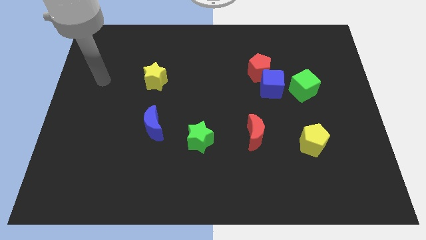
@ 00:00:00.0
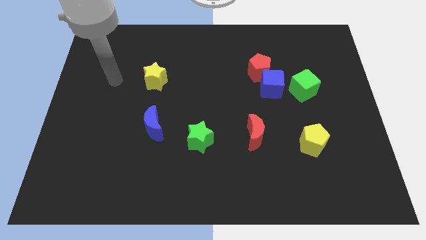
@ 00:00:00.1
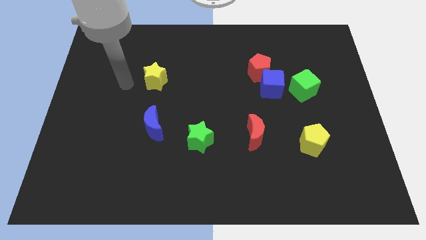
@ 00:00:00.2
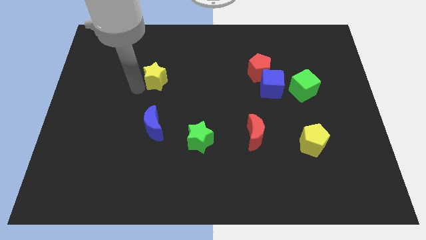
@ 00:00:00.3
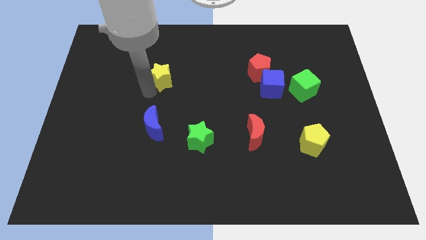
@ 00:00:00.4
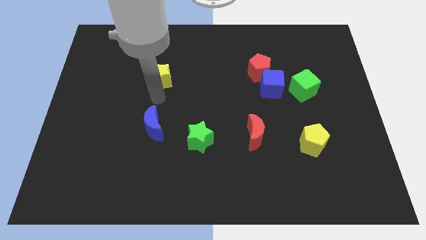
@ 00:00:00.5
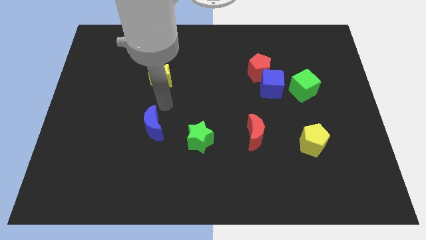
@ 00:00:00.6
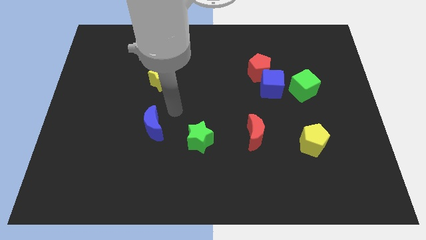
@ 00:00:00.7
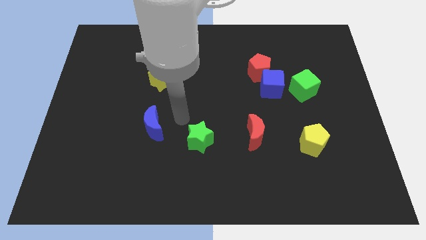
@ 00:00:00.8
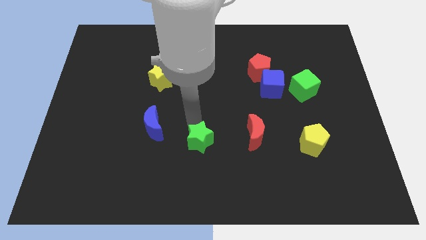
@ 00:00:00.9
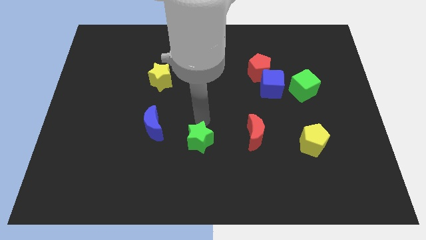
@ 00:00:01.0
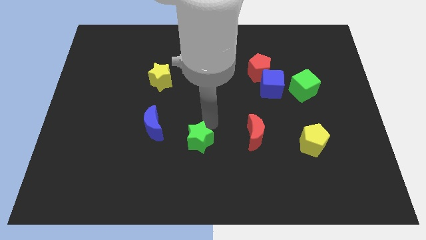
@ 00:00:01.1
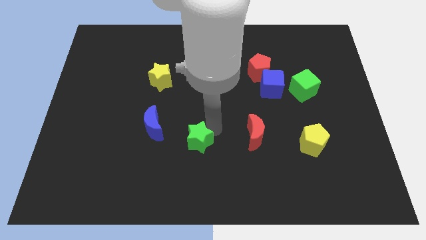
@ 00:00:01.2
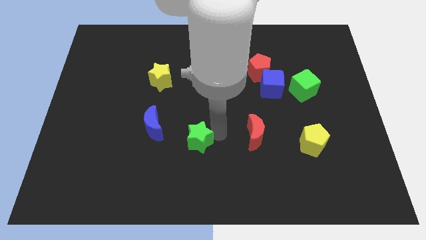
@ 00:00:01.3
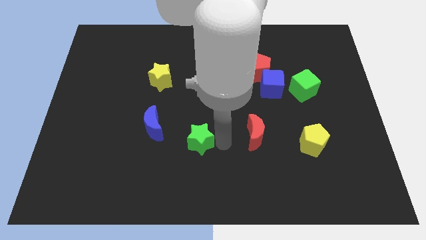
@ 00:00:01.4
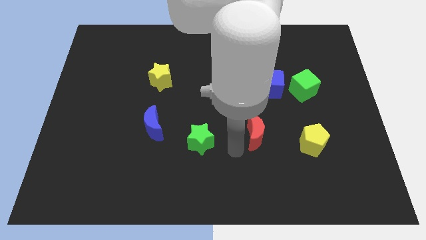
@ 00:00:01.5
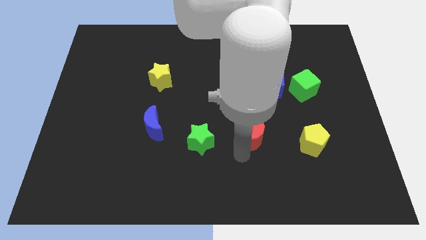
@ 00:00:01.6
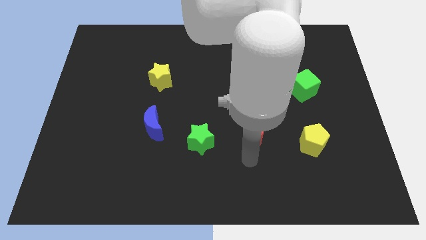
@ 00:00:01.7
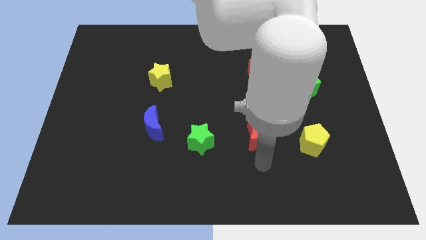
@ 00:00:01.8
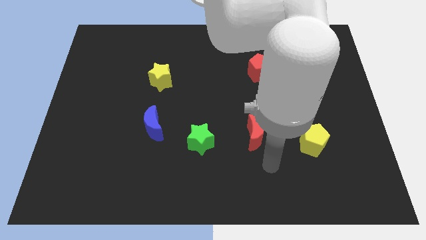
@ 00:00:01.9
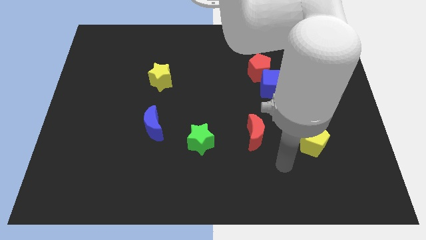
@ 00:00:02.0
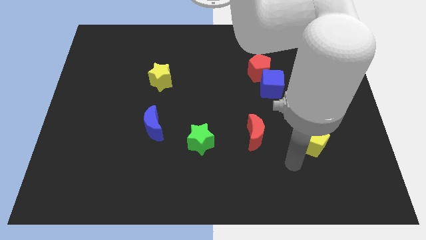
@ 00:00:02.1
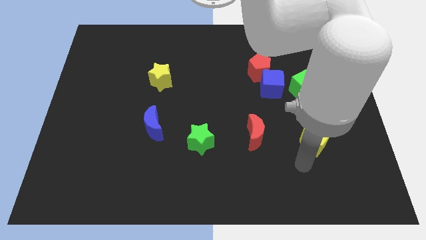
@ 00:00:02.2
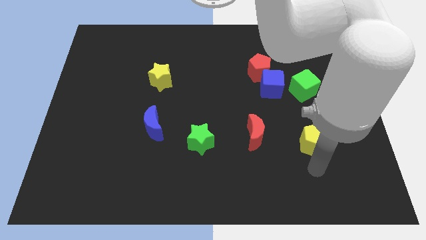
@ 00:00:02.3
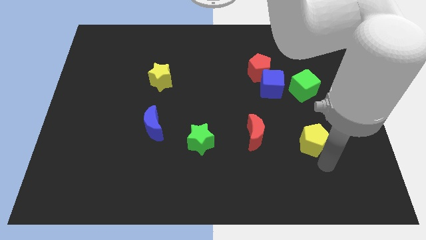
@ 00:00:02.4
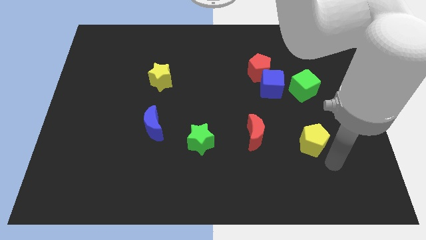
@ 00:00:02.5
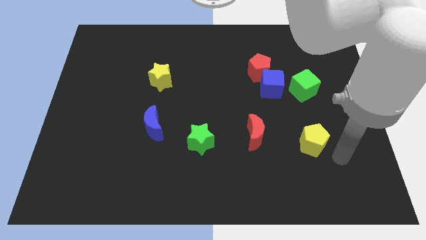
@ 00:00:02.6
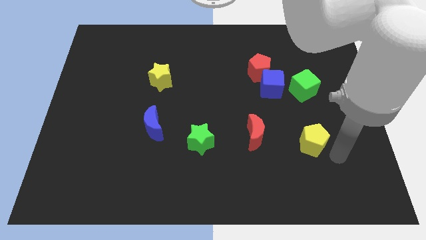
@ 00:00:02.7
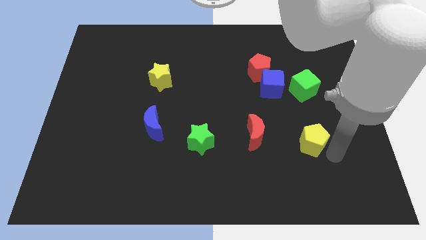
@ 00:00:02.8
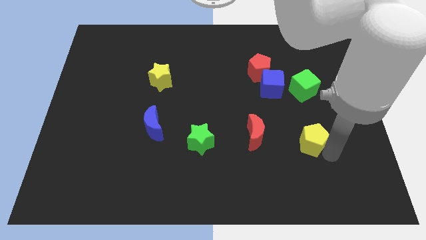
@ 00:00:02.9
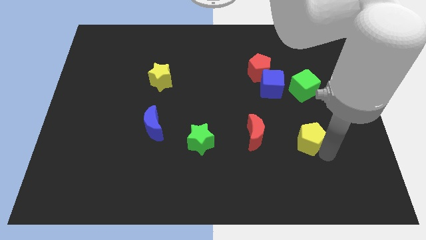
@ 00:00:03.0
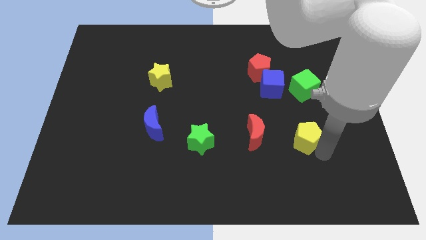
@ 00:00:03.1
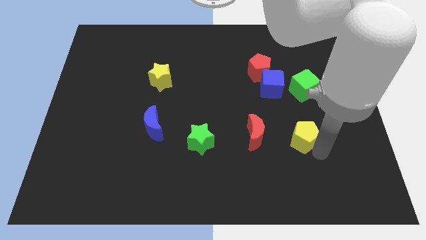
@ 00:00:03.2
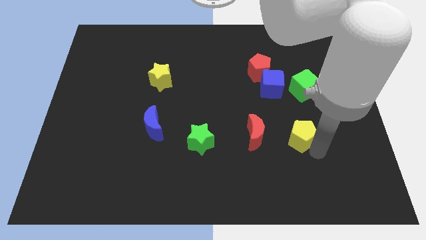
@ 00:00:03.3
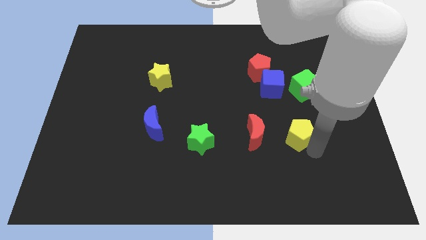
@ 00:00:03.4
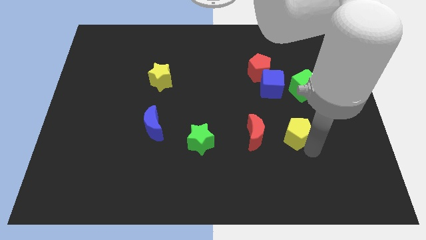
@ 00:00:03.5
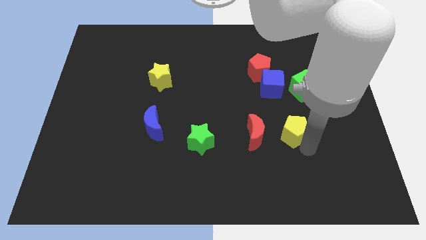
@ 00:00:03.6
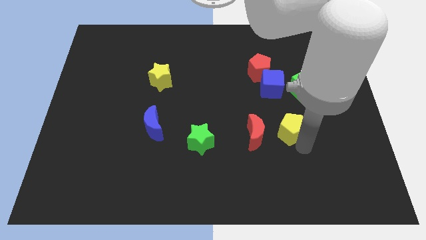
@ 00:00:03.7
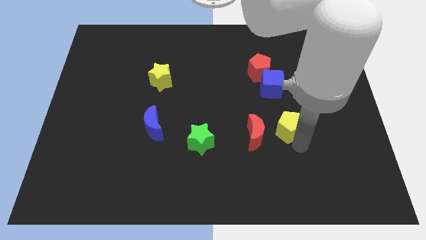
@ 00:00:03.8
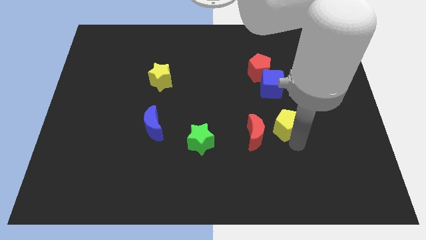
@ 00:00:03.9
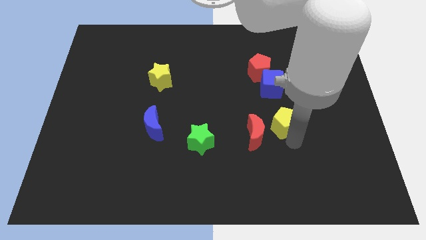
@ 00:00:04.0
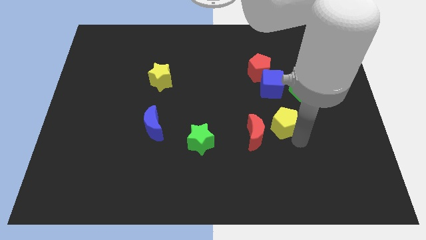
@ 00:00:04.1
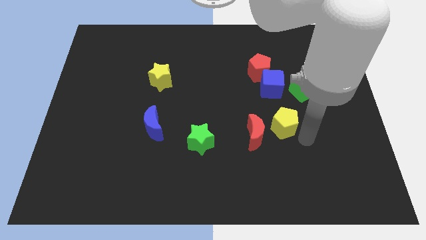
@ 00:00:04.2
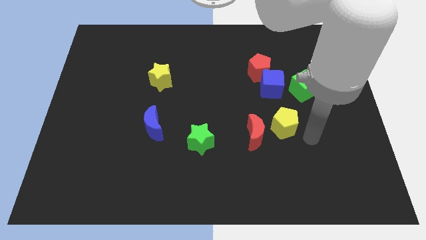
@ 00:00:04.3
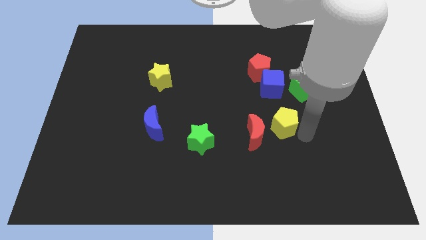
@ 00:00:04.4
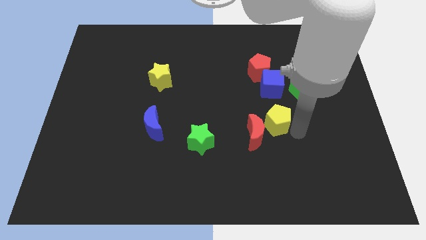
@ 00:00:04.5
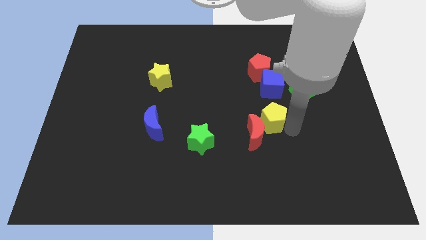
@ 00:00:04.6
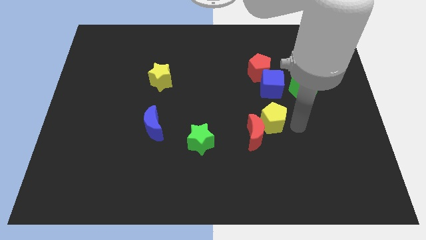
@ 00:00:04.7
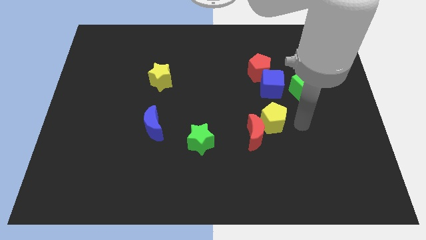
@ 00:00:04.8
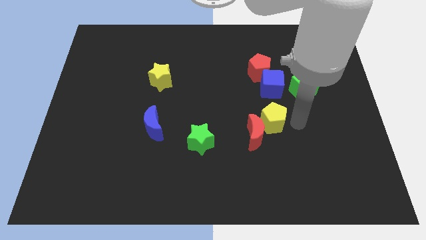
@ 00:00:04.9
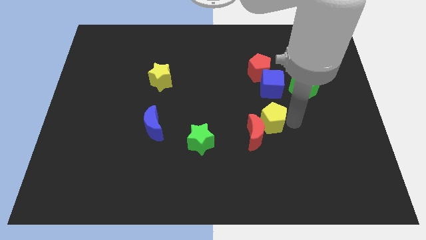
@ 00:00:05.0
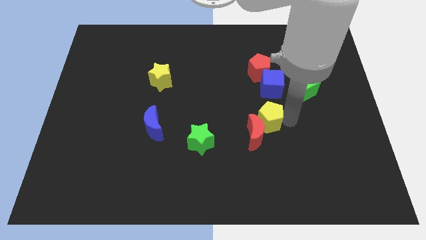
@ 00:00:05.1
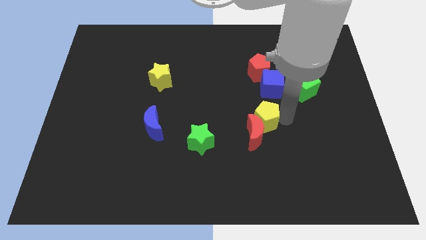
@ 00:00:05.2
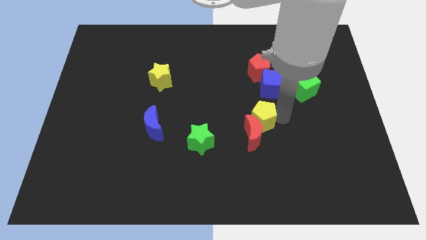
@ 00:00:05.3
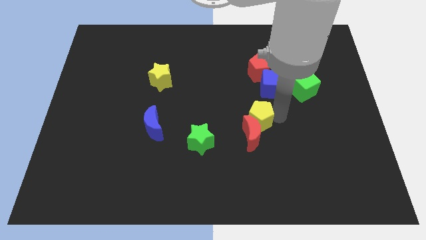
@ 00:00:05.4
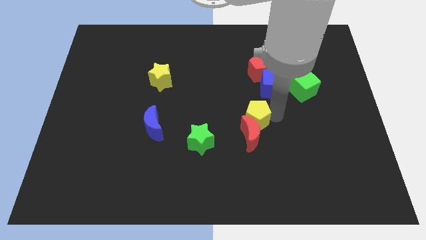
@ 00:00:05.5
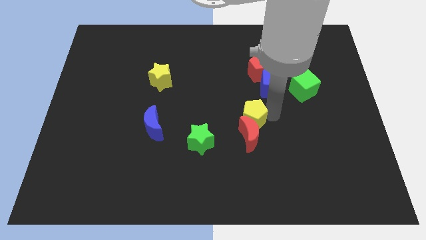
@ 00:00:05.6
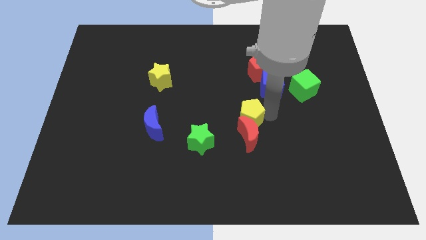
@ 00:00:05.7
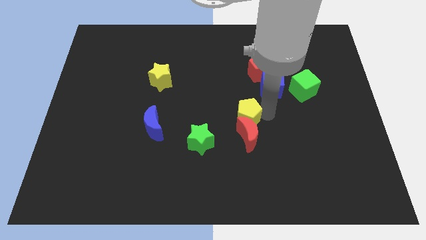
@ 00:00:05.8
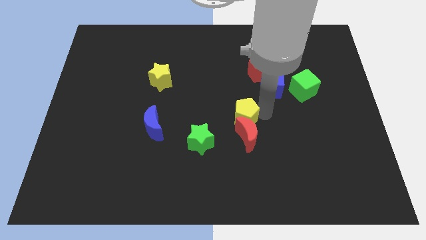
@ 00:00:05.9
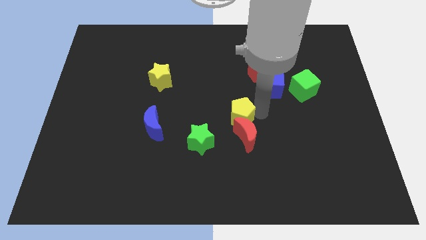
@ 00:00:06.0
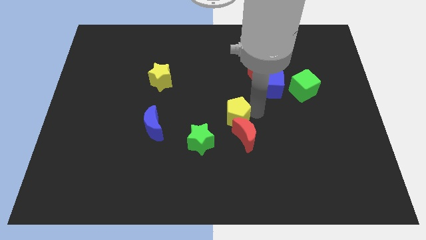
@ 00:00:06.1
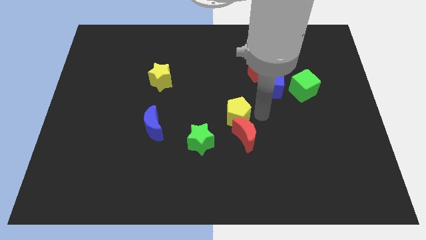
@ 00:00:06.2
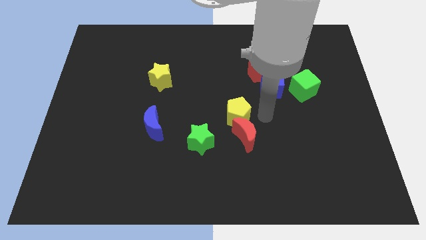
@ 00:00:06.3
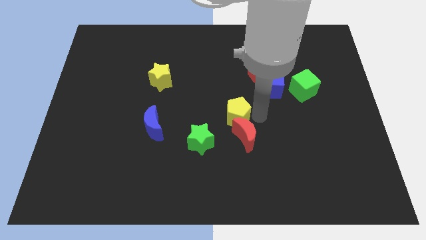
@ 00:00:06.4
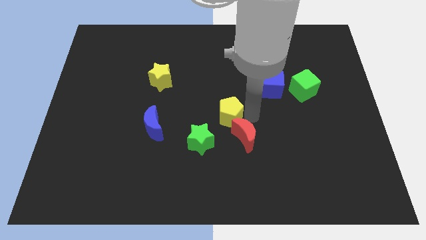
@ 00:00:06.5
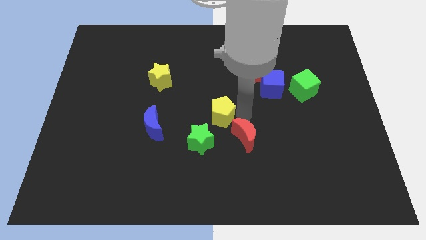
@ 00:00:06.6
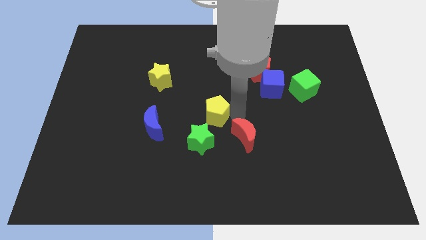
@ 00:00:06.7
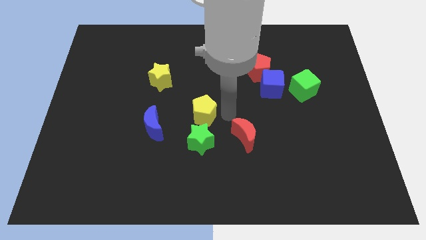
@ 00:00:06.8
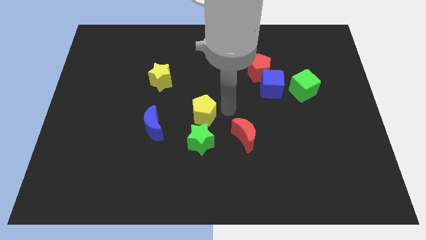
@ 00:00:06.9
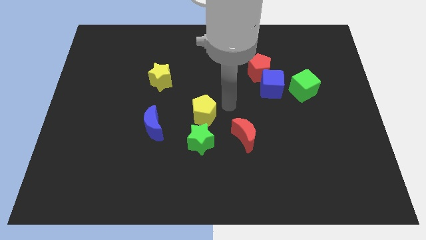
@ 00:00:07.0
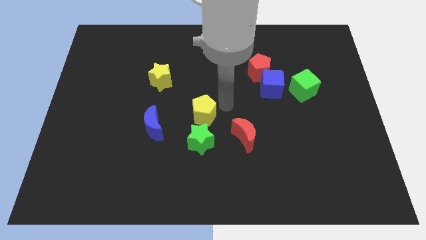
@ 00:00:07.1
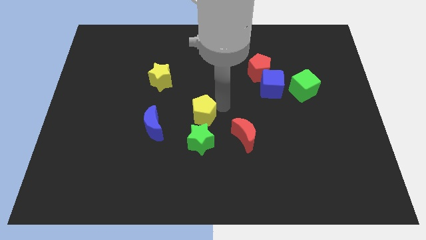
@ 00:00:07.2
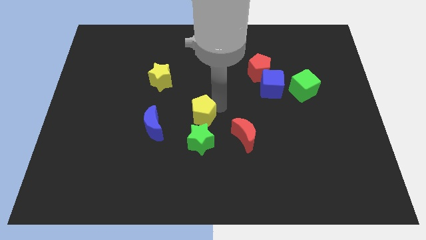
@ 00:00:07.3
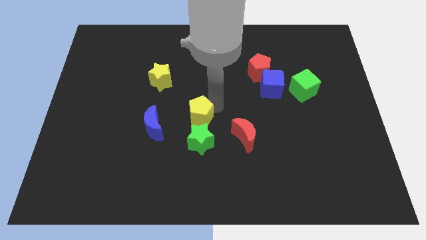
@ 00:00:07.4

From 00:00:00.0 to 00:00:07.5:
move the yellow pentagon diagonally up and to the left of the green star

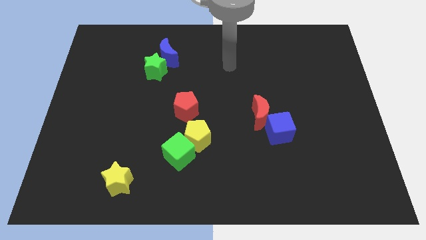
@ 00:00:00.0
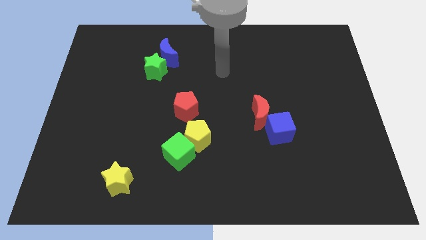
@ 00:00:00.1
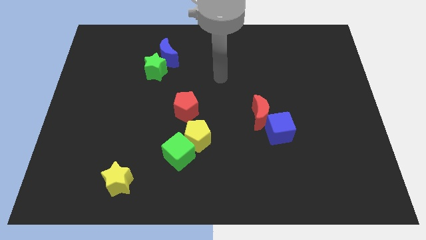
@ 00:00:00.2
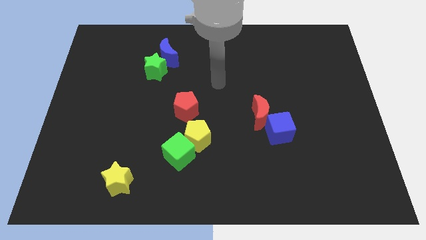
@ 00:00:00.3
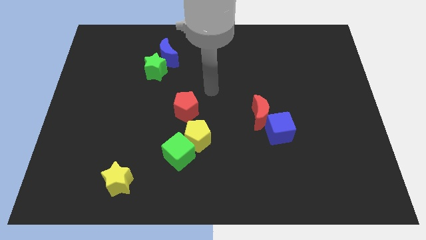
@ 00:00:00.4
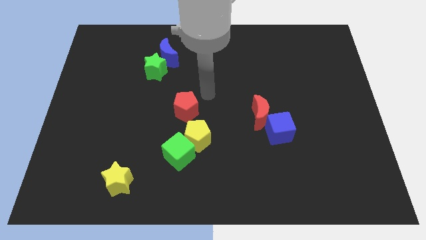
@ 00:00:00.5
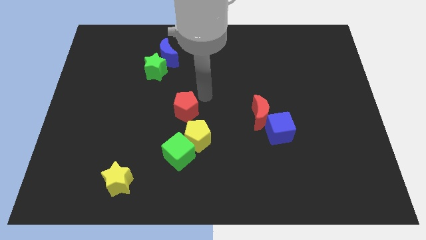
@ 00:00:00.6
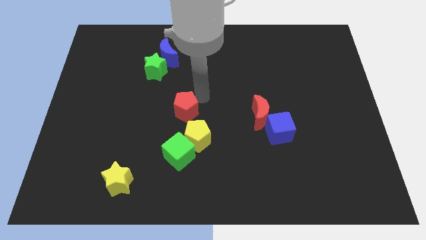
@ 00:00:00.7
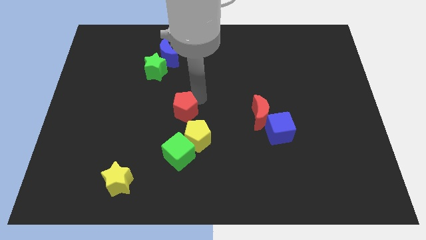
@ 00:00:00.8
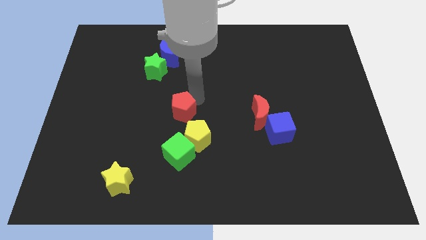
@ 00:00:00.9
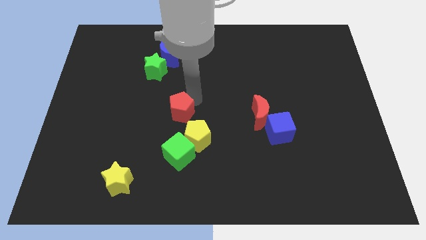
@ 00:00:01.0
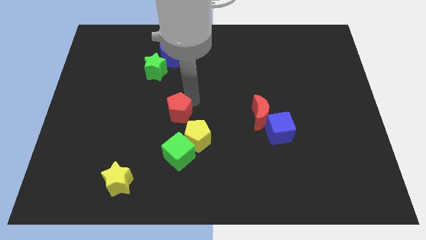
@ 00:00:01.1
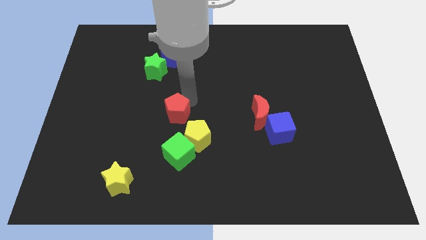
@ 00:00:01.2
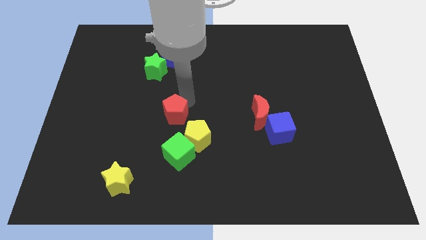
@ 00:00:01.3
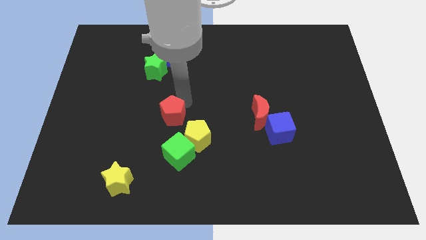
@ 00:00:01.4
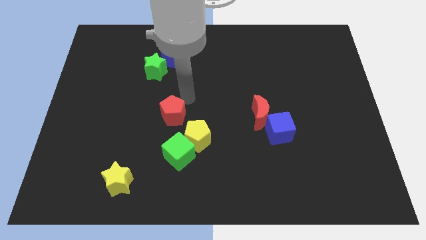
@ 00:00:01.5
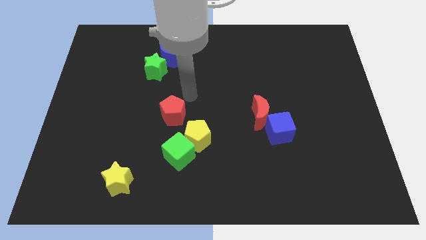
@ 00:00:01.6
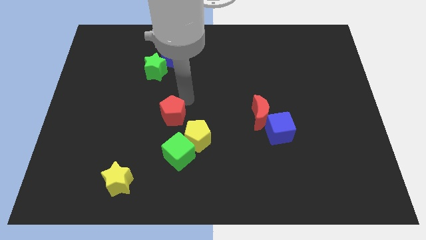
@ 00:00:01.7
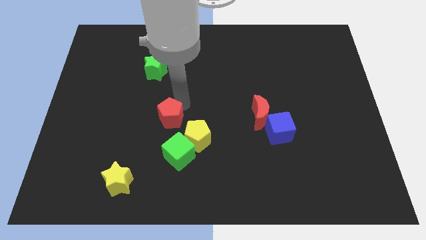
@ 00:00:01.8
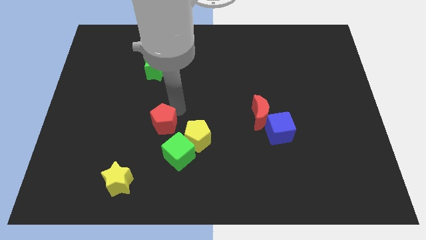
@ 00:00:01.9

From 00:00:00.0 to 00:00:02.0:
slide the red pentagon diagonally up and to the left of the green cube
